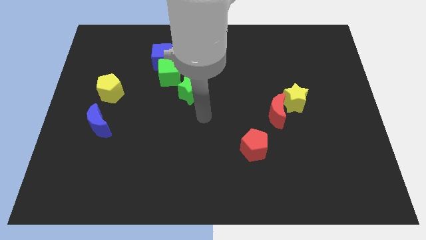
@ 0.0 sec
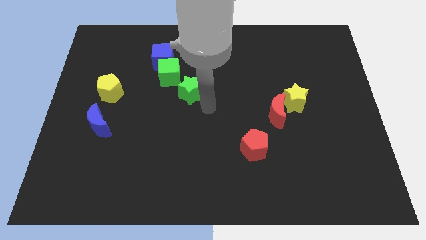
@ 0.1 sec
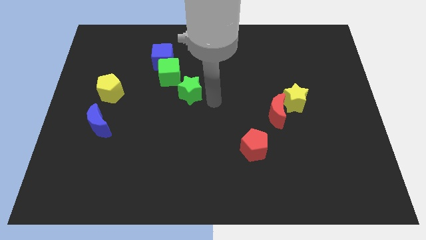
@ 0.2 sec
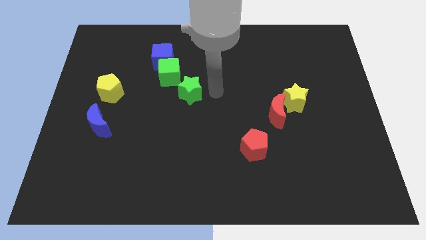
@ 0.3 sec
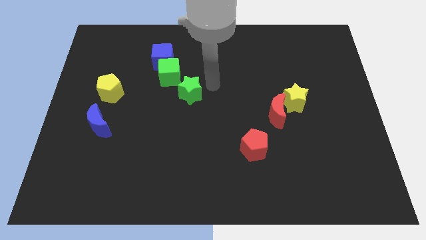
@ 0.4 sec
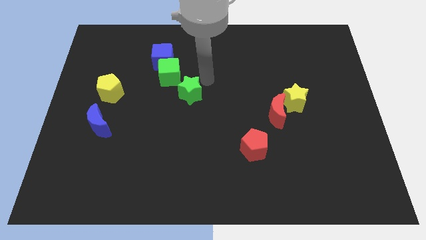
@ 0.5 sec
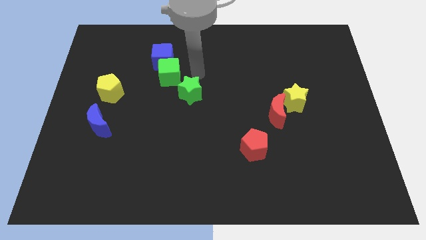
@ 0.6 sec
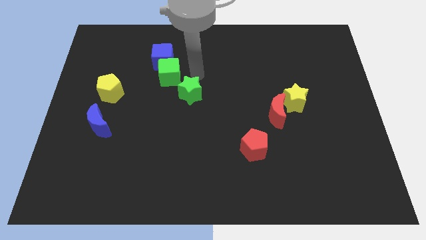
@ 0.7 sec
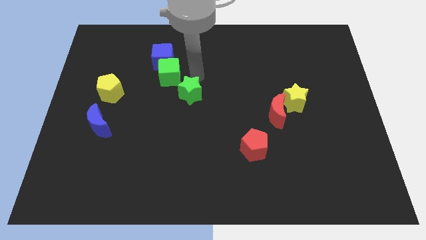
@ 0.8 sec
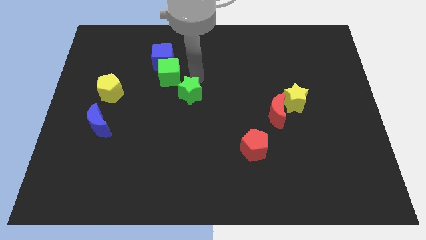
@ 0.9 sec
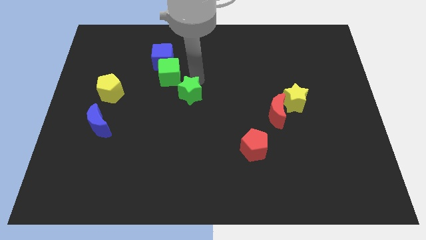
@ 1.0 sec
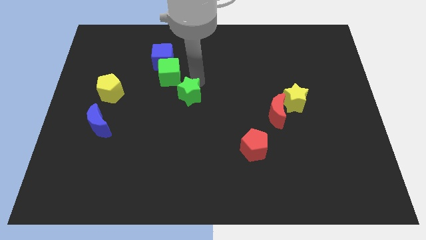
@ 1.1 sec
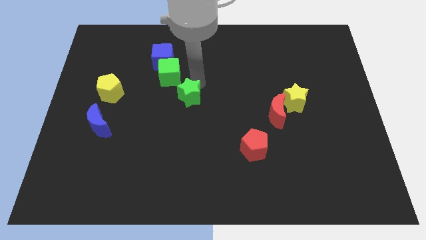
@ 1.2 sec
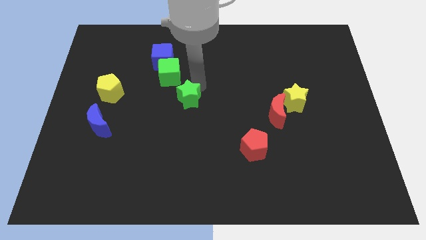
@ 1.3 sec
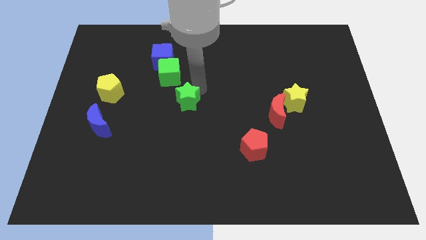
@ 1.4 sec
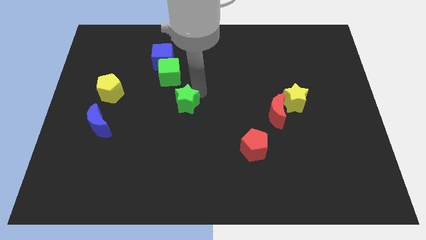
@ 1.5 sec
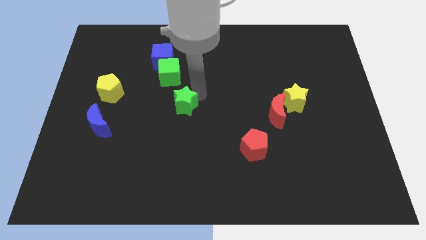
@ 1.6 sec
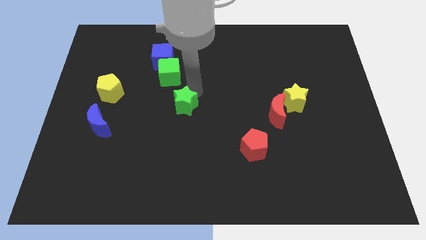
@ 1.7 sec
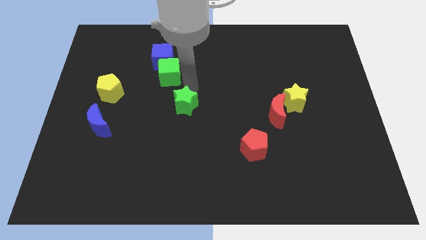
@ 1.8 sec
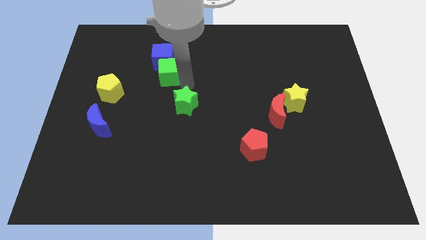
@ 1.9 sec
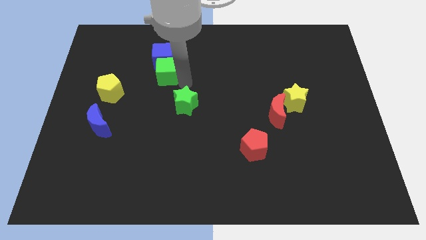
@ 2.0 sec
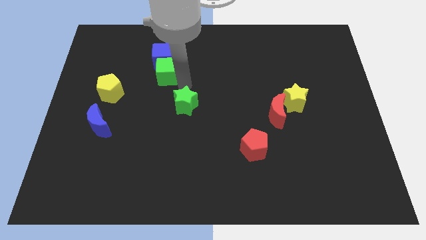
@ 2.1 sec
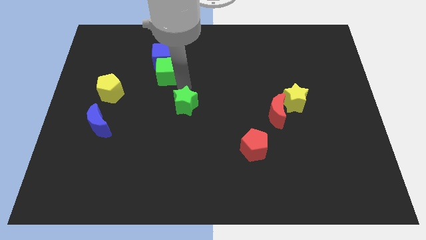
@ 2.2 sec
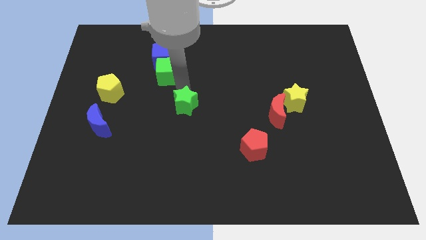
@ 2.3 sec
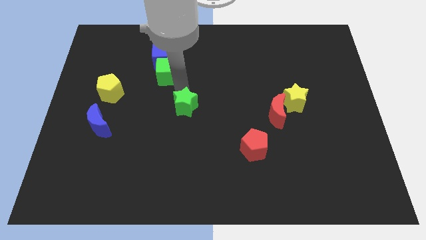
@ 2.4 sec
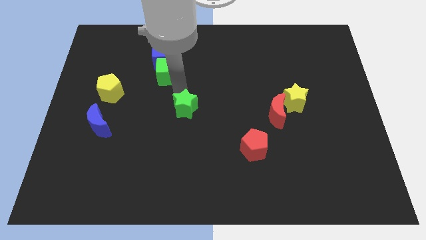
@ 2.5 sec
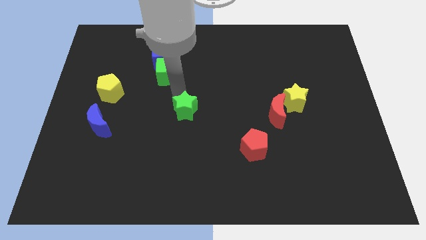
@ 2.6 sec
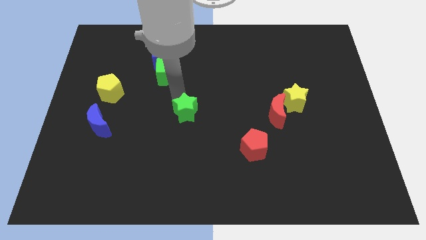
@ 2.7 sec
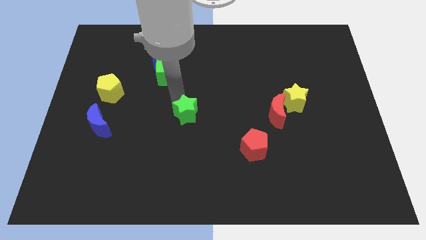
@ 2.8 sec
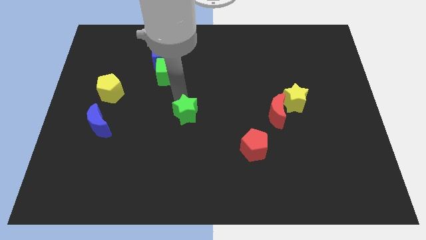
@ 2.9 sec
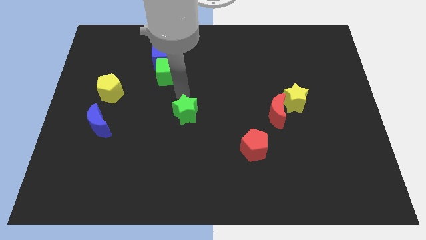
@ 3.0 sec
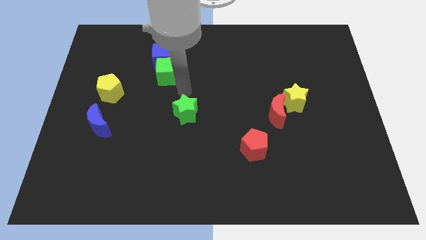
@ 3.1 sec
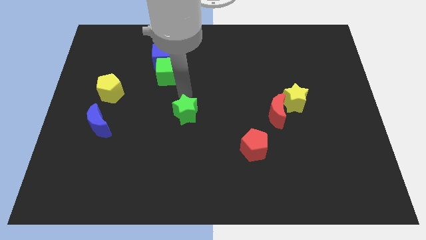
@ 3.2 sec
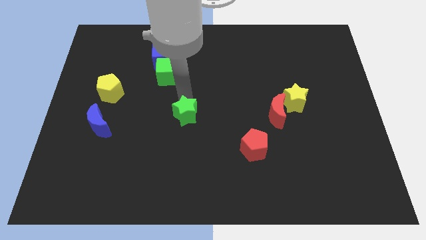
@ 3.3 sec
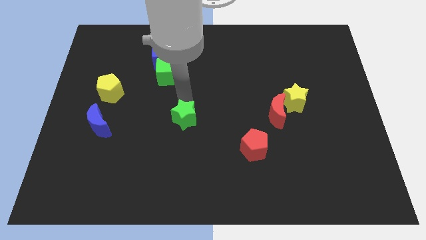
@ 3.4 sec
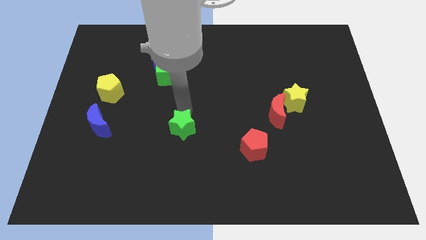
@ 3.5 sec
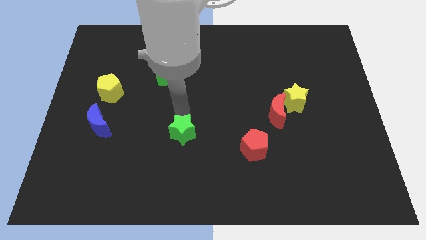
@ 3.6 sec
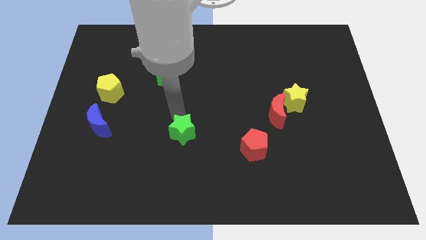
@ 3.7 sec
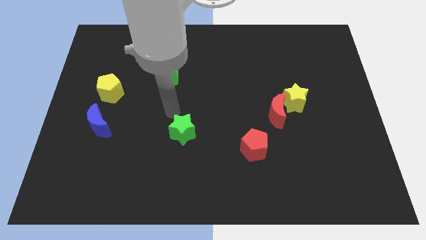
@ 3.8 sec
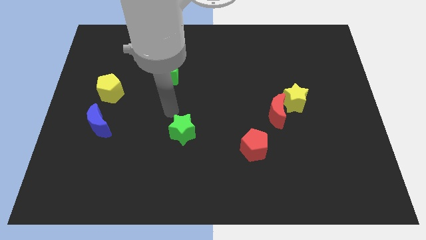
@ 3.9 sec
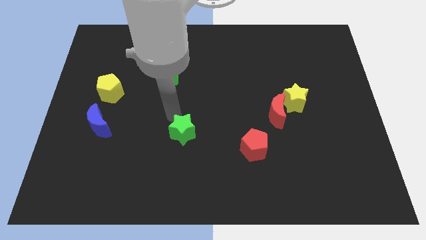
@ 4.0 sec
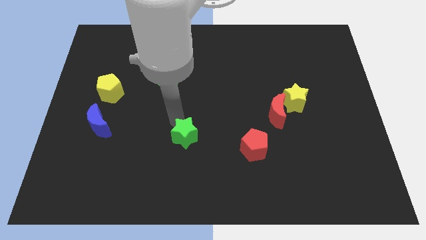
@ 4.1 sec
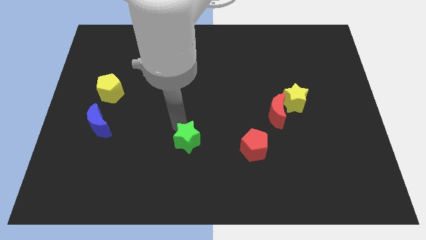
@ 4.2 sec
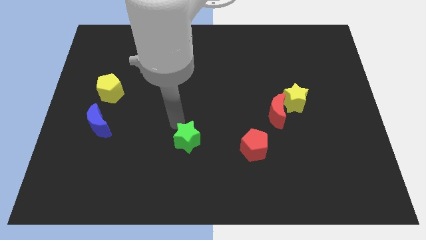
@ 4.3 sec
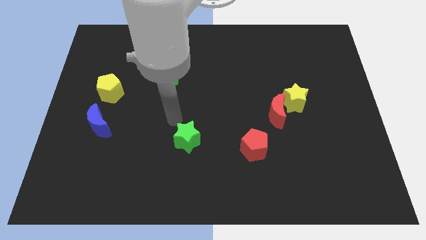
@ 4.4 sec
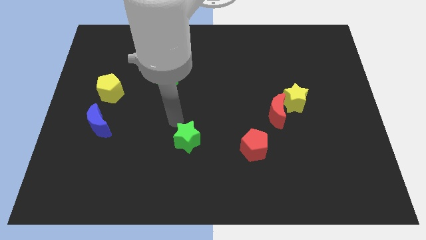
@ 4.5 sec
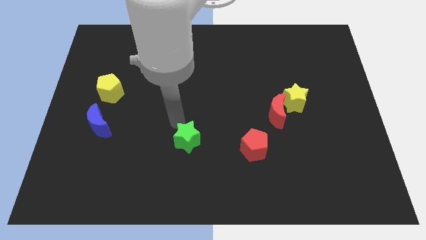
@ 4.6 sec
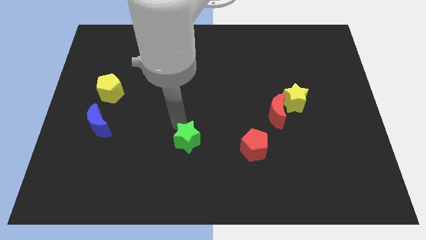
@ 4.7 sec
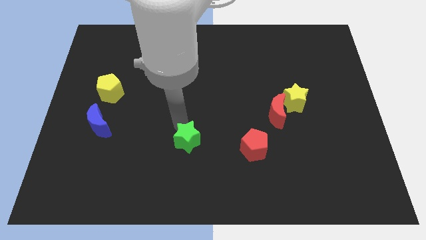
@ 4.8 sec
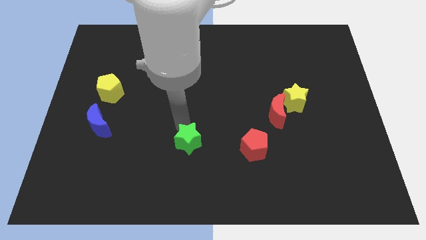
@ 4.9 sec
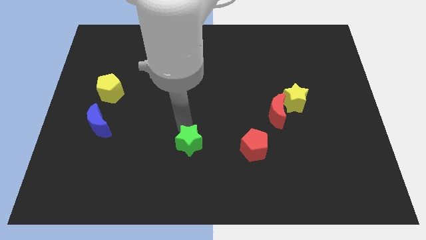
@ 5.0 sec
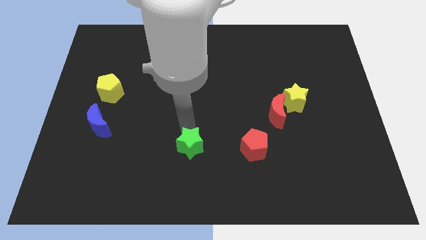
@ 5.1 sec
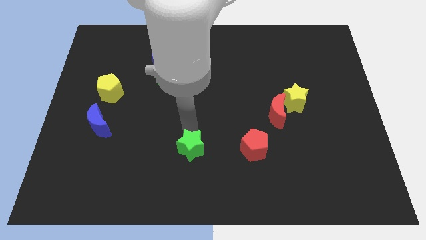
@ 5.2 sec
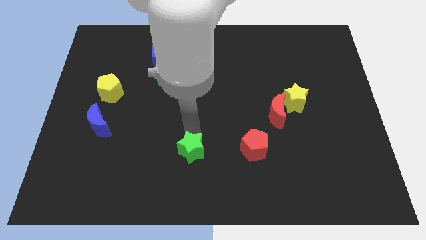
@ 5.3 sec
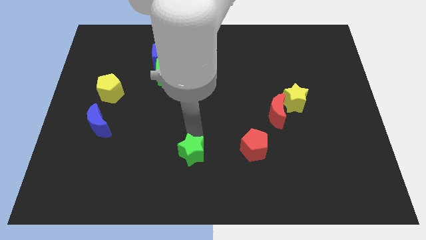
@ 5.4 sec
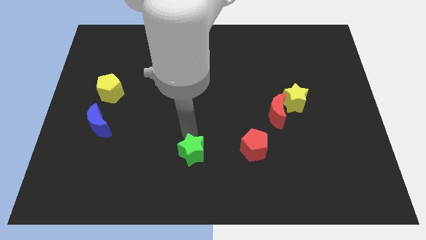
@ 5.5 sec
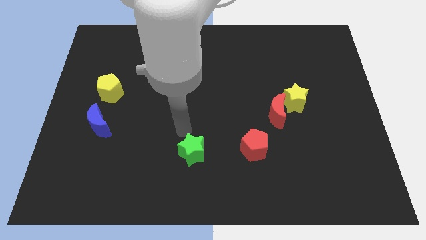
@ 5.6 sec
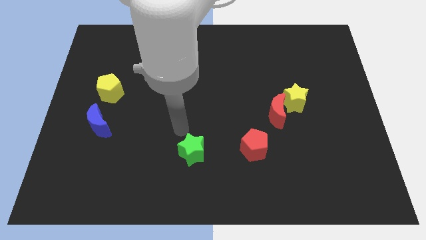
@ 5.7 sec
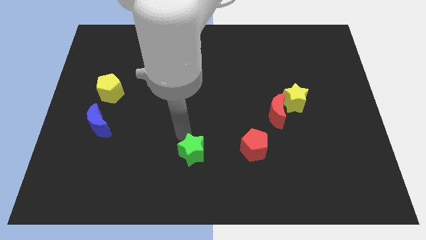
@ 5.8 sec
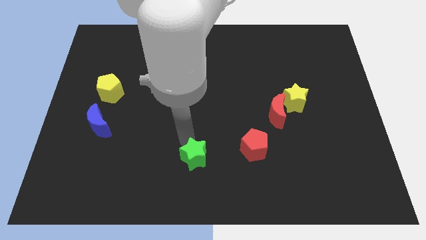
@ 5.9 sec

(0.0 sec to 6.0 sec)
slide the green star to the bottom side

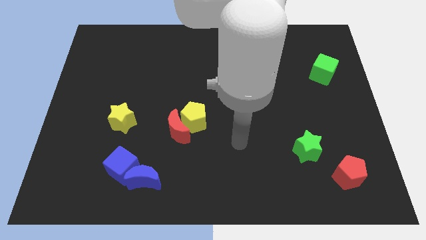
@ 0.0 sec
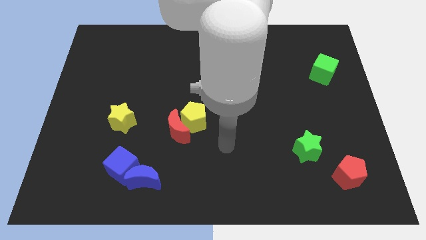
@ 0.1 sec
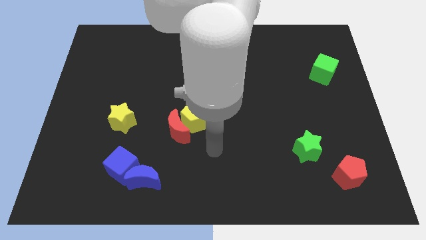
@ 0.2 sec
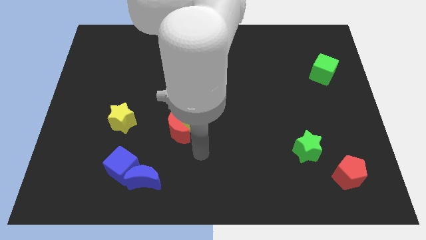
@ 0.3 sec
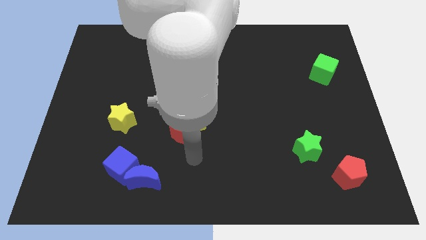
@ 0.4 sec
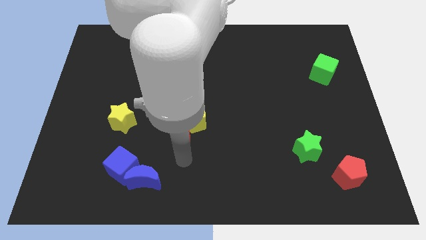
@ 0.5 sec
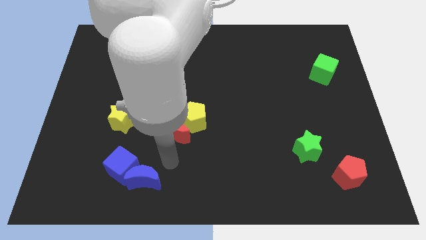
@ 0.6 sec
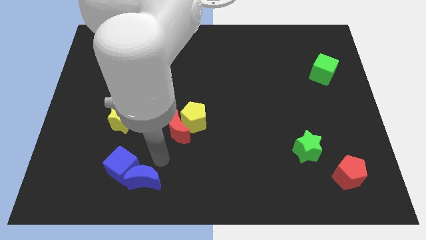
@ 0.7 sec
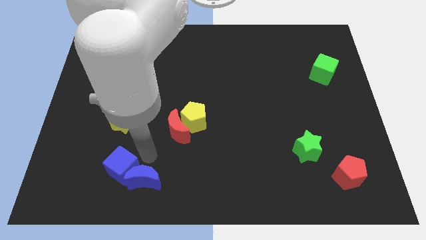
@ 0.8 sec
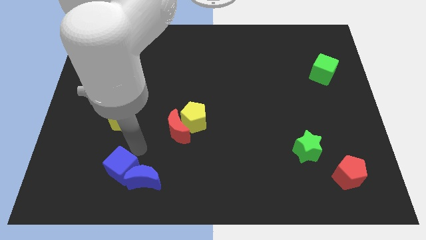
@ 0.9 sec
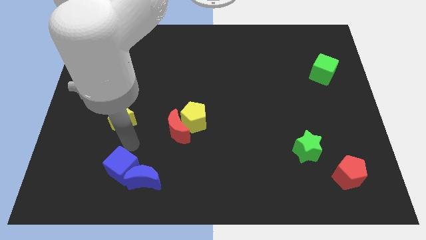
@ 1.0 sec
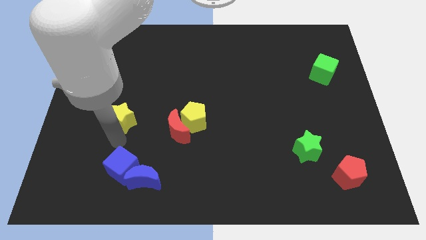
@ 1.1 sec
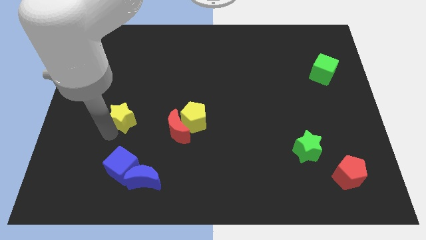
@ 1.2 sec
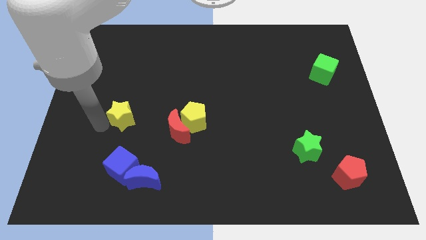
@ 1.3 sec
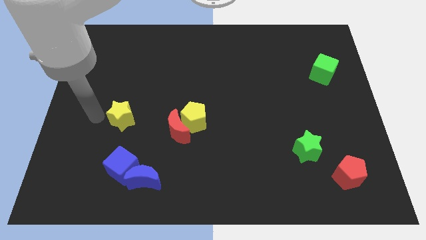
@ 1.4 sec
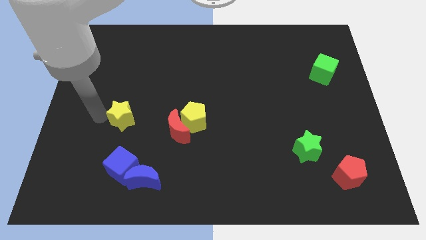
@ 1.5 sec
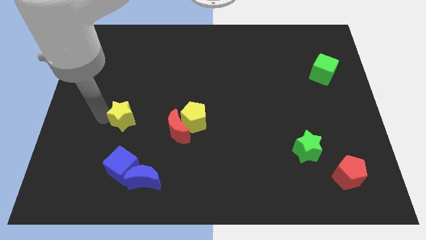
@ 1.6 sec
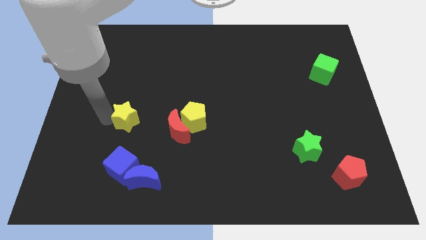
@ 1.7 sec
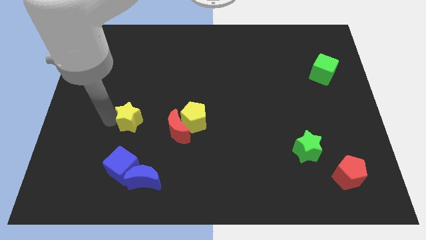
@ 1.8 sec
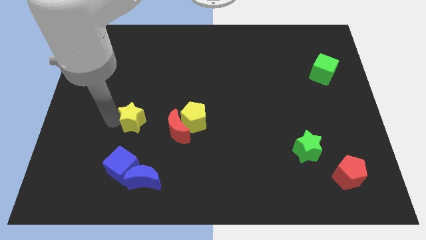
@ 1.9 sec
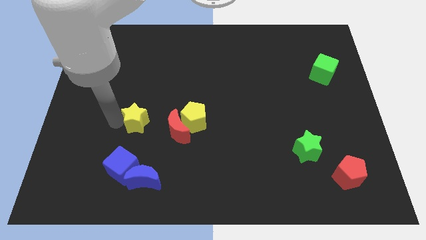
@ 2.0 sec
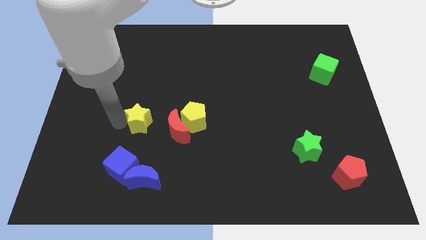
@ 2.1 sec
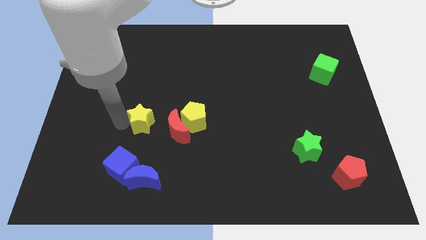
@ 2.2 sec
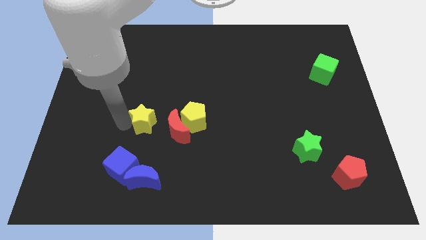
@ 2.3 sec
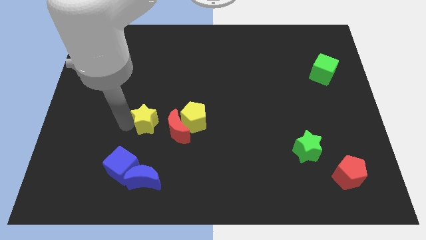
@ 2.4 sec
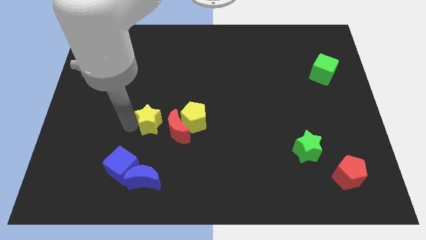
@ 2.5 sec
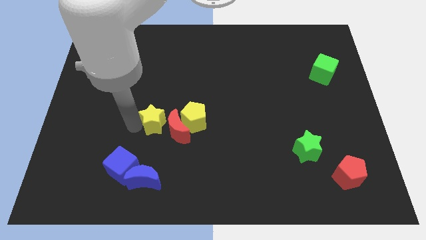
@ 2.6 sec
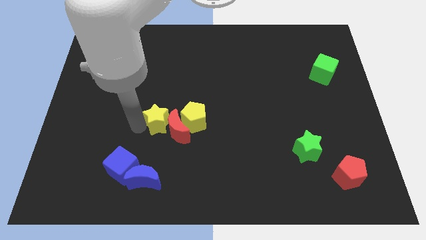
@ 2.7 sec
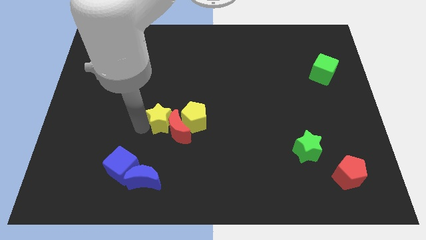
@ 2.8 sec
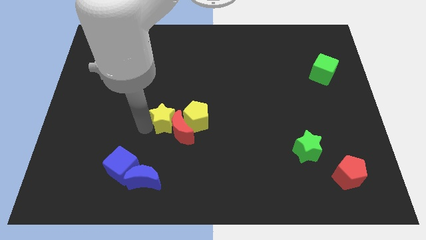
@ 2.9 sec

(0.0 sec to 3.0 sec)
put the yellow star to the center of the board
